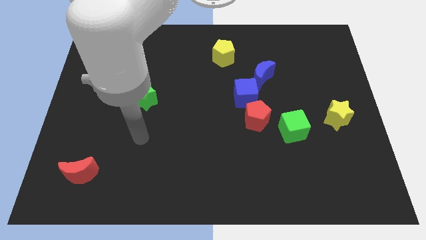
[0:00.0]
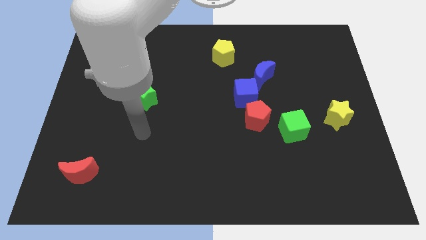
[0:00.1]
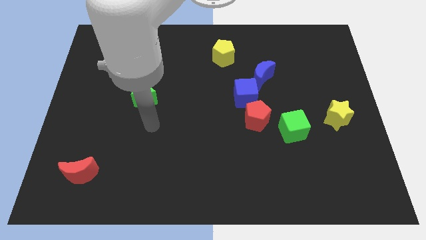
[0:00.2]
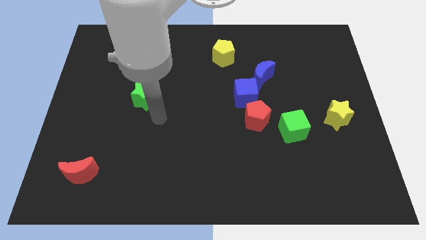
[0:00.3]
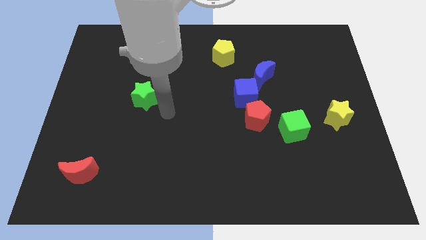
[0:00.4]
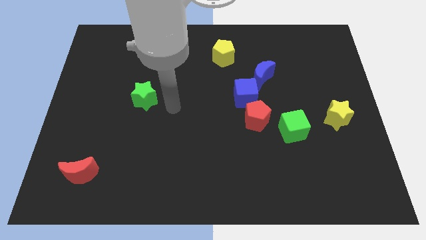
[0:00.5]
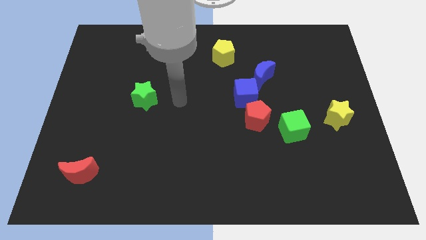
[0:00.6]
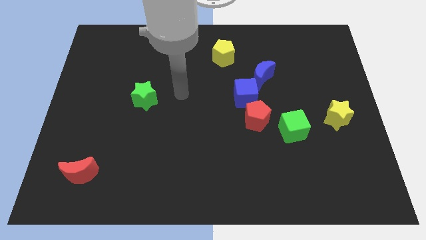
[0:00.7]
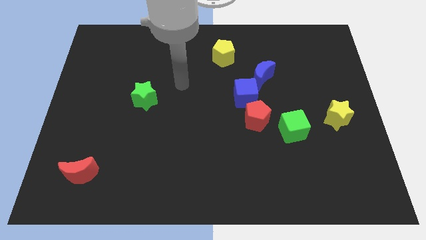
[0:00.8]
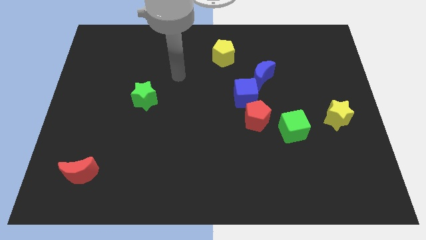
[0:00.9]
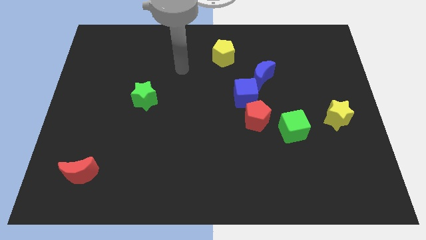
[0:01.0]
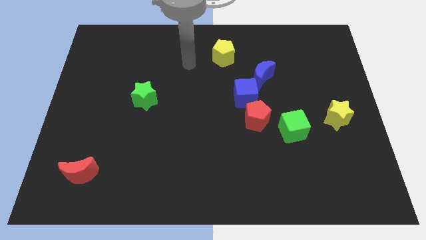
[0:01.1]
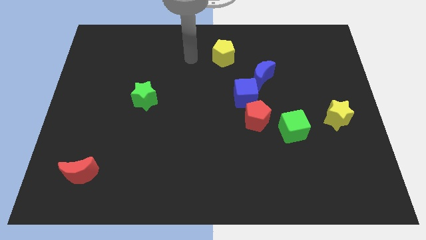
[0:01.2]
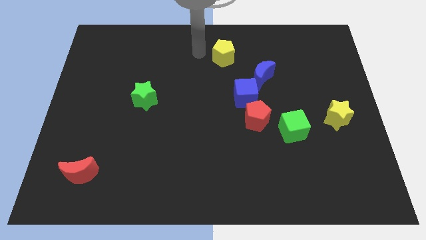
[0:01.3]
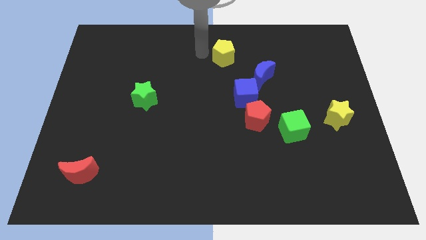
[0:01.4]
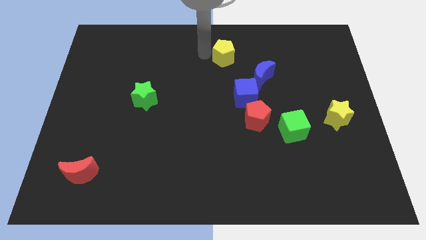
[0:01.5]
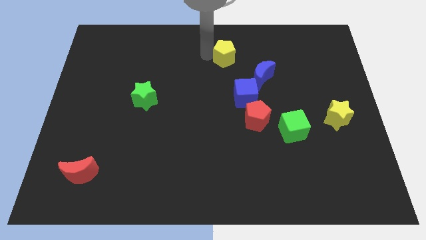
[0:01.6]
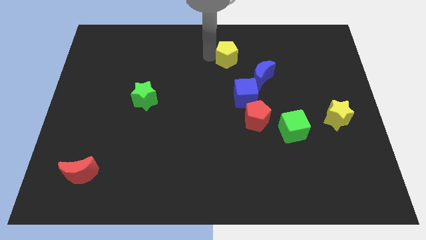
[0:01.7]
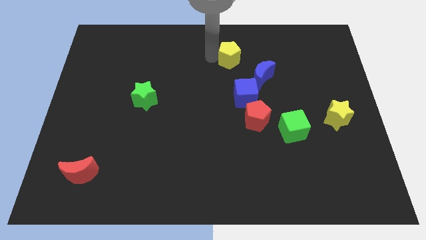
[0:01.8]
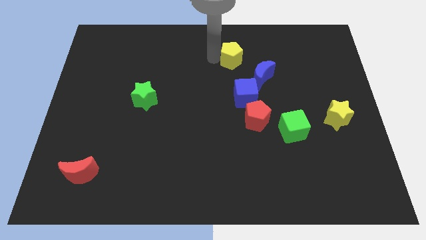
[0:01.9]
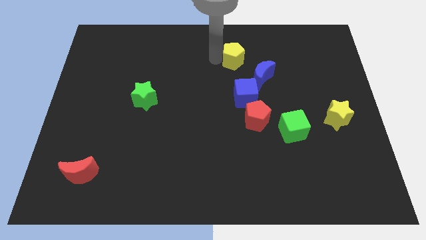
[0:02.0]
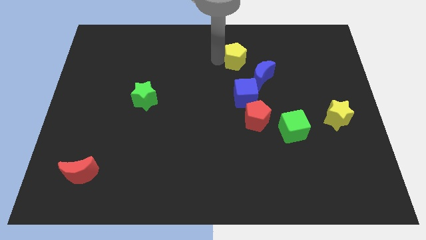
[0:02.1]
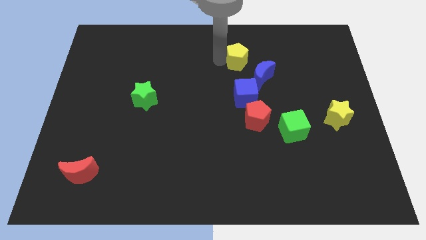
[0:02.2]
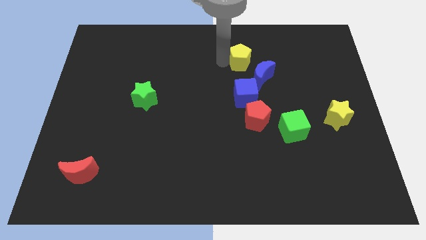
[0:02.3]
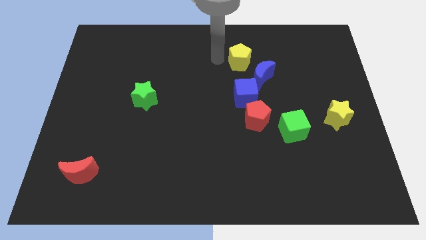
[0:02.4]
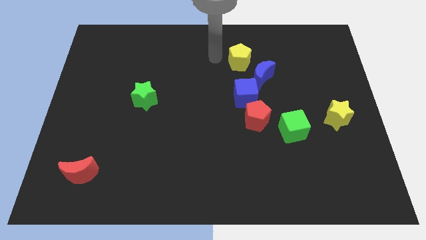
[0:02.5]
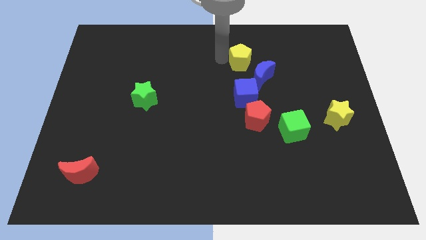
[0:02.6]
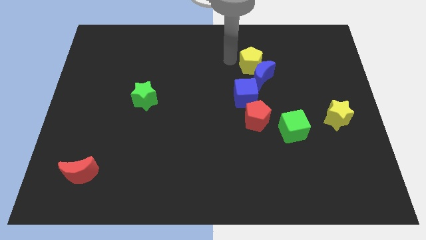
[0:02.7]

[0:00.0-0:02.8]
slide the yellow pentagon a little down and then to the right

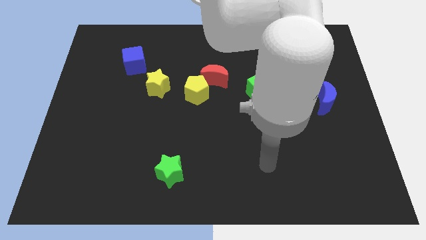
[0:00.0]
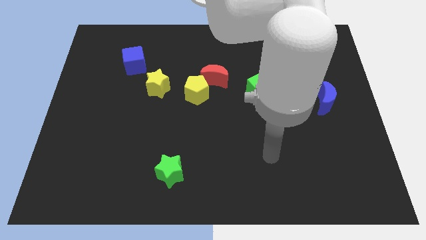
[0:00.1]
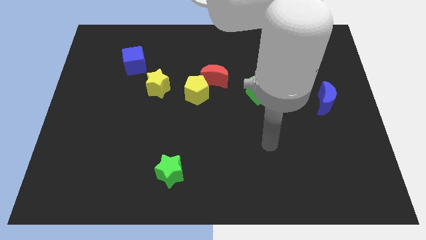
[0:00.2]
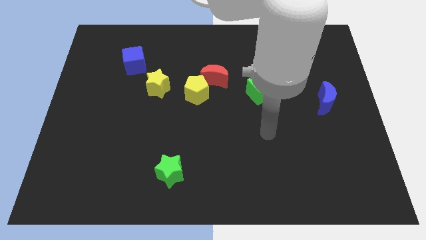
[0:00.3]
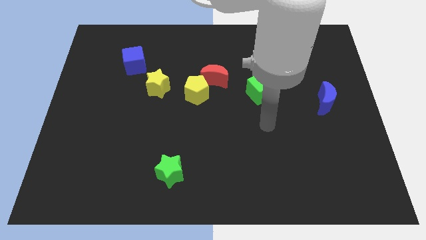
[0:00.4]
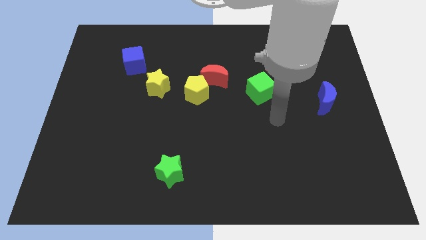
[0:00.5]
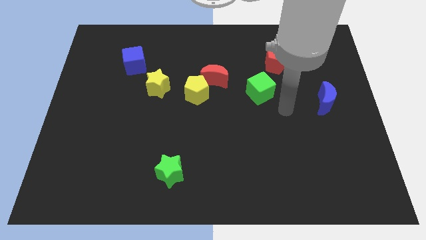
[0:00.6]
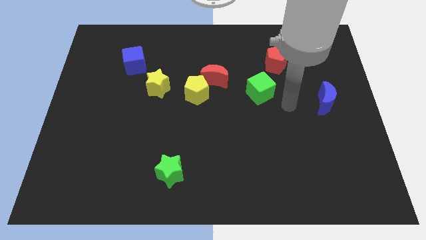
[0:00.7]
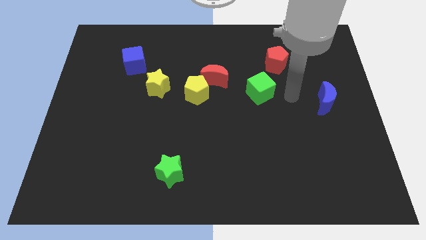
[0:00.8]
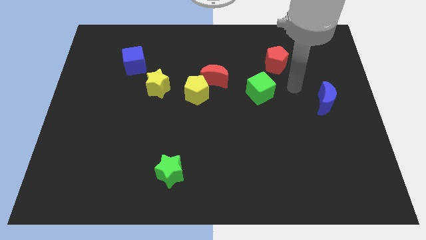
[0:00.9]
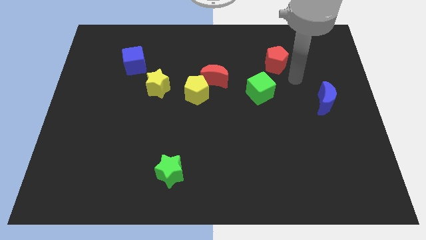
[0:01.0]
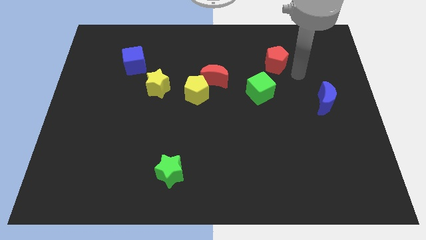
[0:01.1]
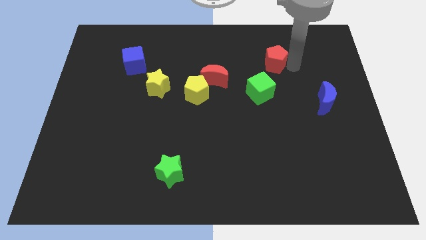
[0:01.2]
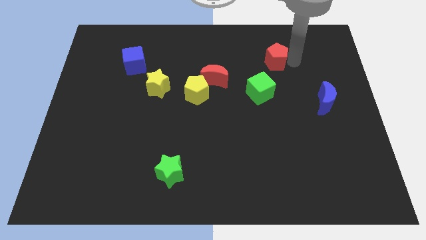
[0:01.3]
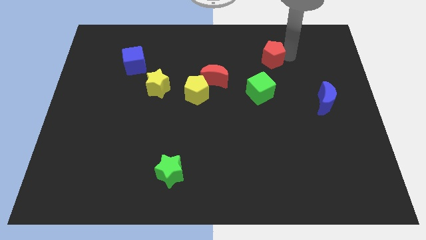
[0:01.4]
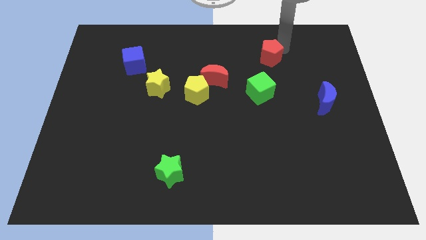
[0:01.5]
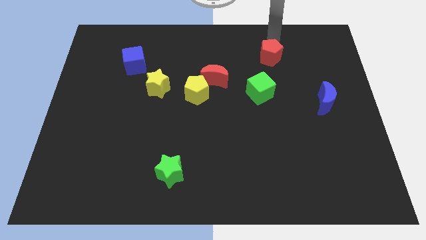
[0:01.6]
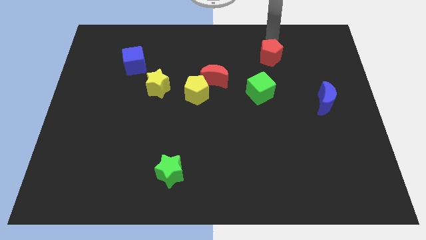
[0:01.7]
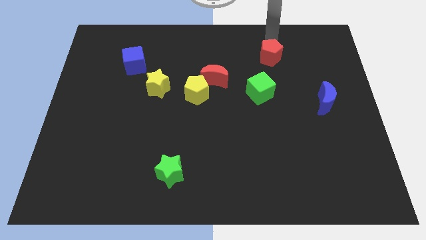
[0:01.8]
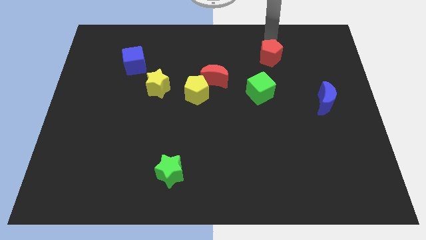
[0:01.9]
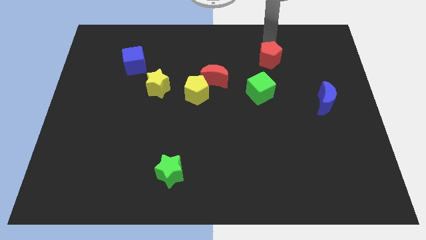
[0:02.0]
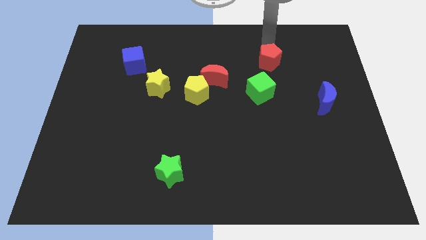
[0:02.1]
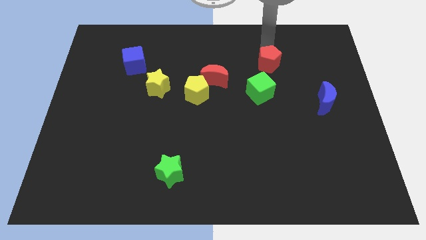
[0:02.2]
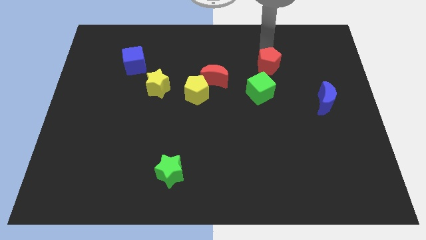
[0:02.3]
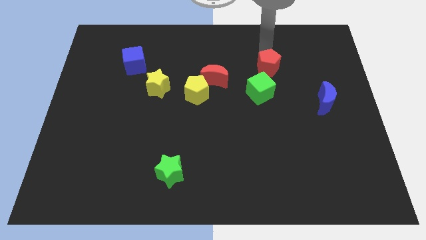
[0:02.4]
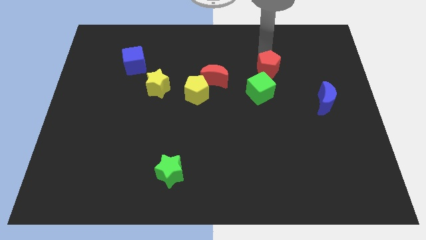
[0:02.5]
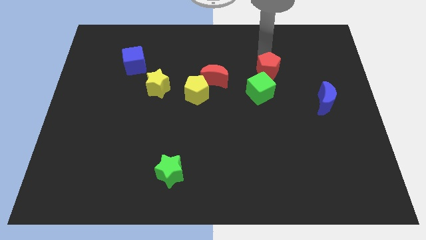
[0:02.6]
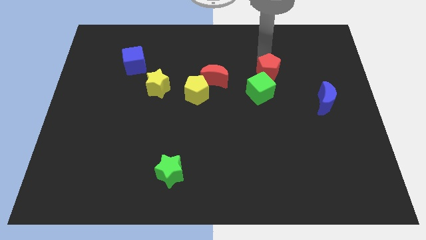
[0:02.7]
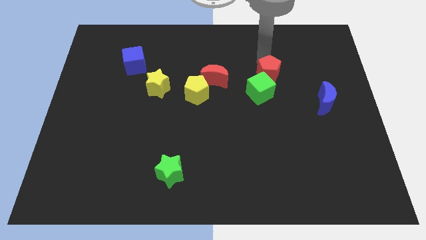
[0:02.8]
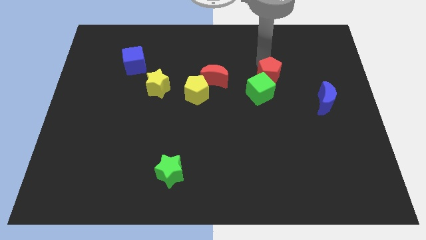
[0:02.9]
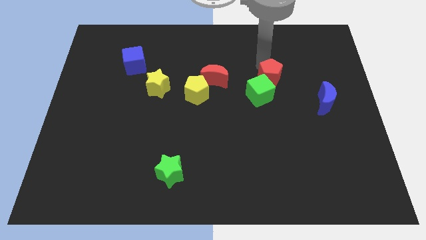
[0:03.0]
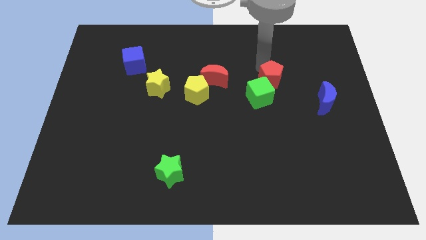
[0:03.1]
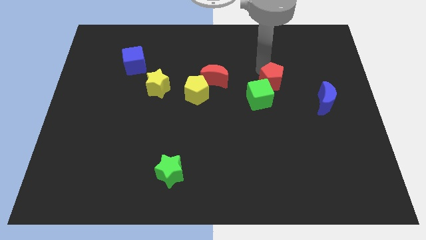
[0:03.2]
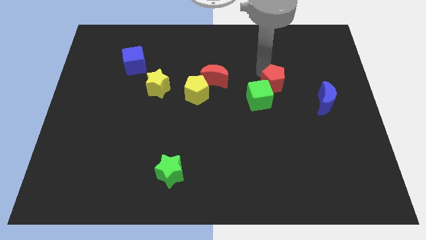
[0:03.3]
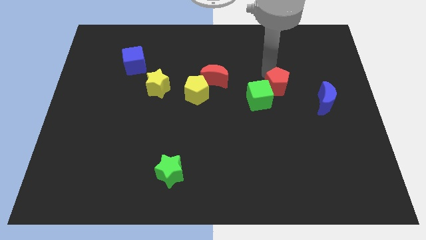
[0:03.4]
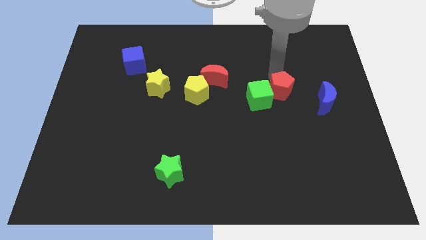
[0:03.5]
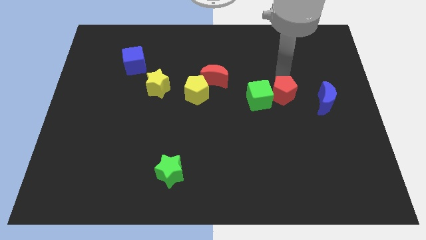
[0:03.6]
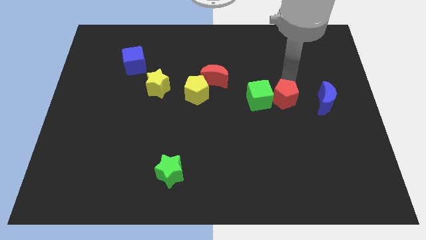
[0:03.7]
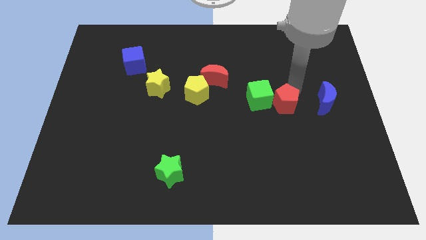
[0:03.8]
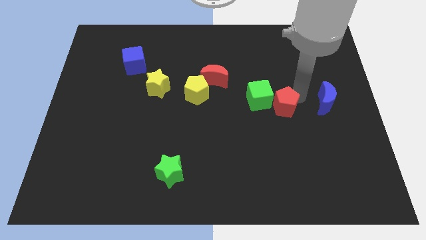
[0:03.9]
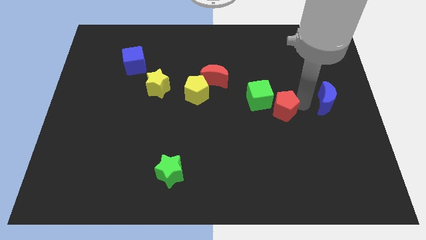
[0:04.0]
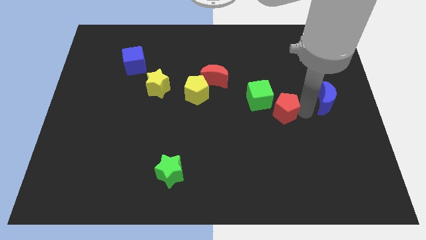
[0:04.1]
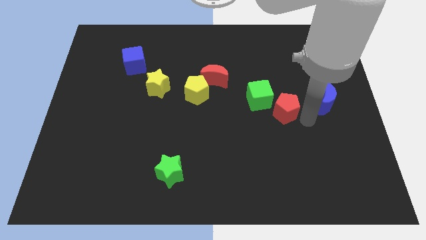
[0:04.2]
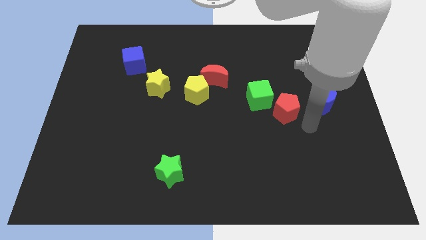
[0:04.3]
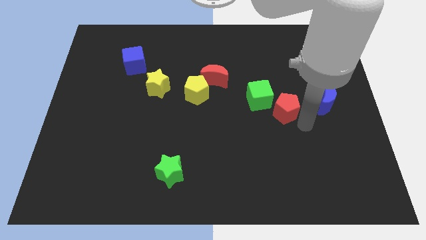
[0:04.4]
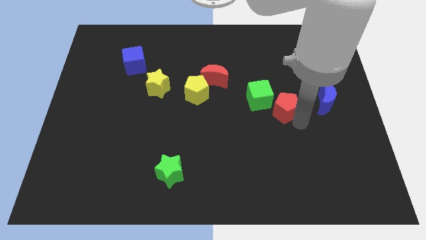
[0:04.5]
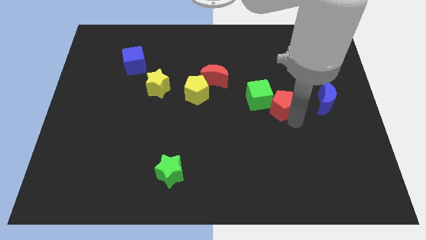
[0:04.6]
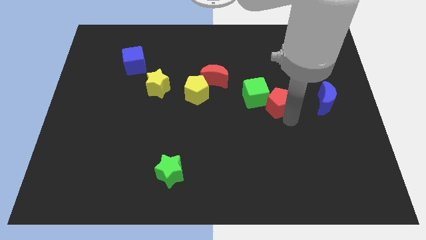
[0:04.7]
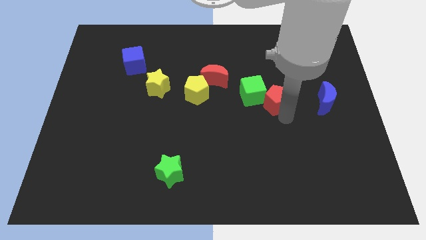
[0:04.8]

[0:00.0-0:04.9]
push the red pentagon a little down and left

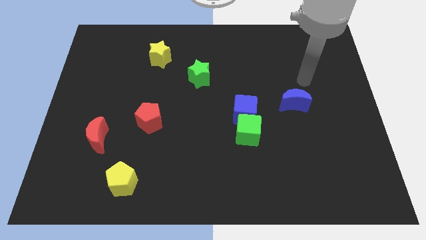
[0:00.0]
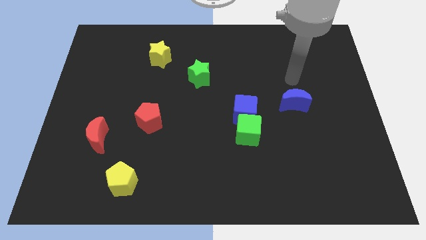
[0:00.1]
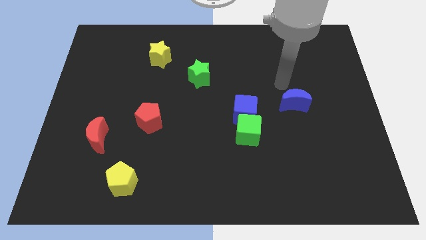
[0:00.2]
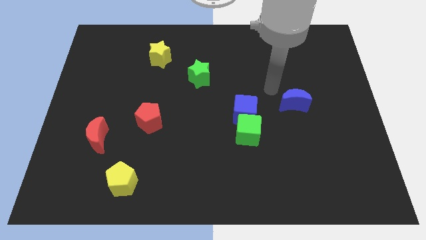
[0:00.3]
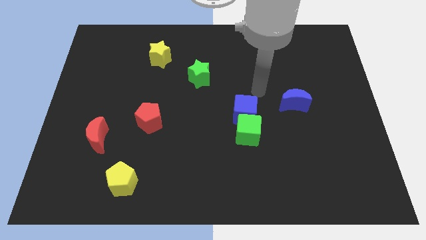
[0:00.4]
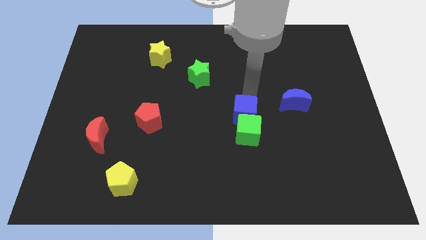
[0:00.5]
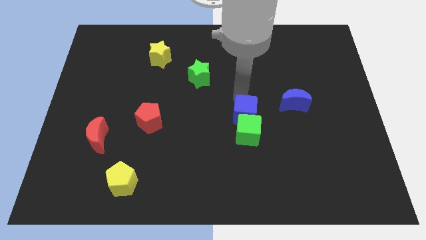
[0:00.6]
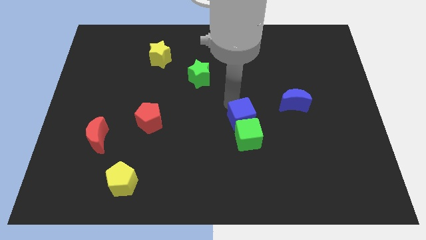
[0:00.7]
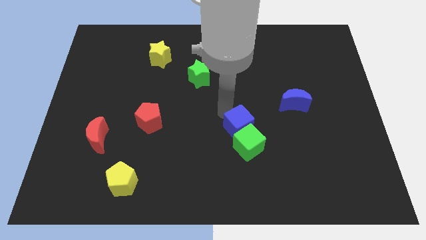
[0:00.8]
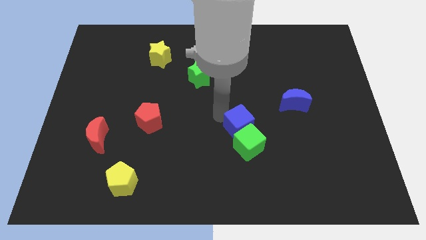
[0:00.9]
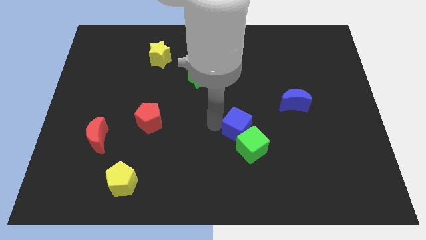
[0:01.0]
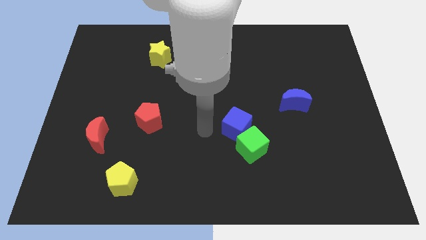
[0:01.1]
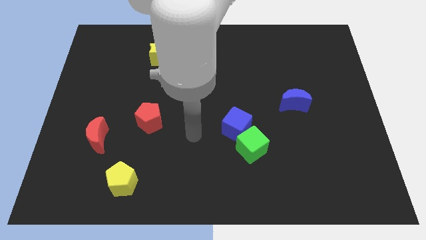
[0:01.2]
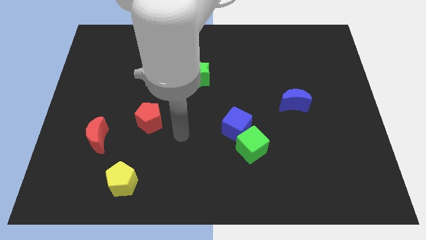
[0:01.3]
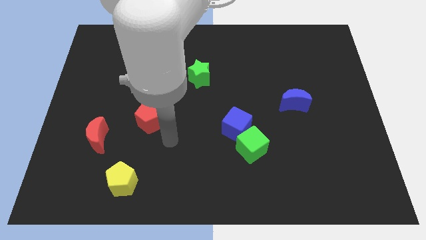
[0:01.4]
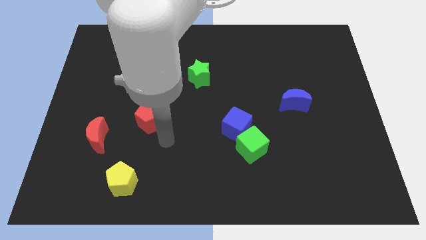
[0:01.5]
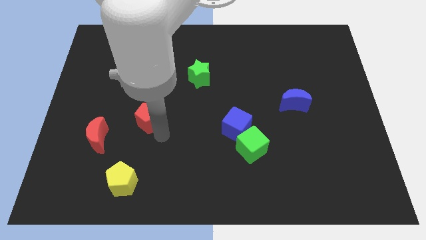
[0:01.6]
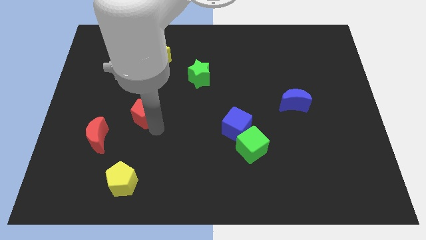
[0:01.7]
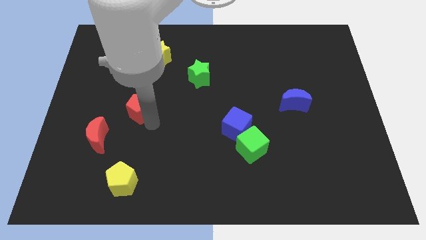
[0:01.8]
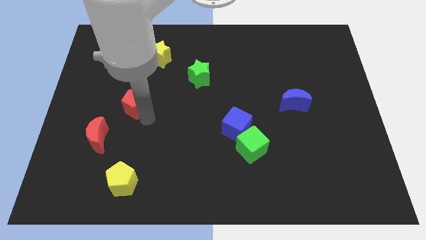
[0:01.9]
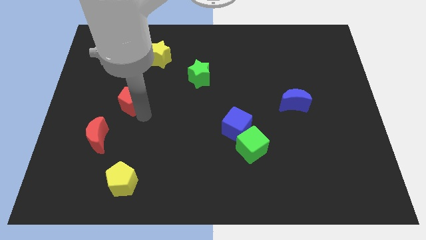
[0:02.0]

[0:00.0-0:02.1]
slightly move the red pentagon up and then left
